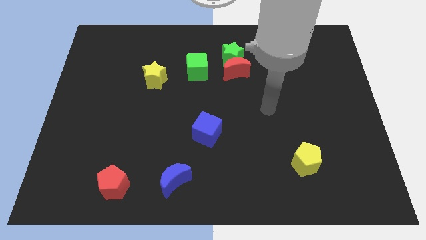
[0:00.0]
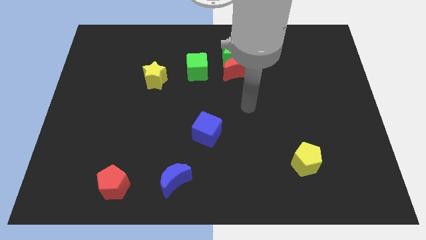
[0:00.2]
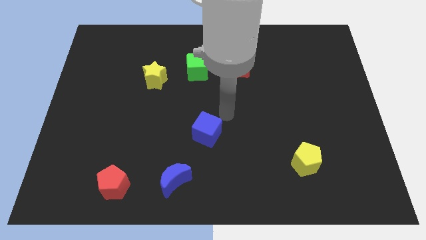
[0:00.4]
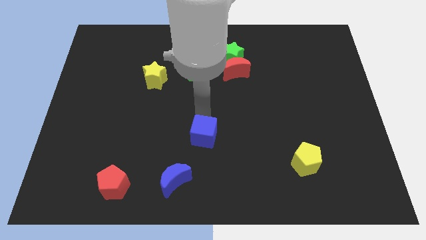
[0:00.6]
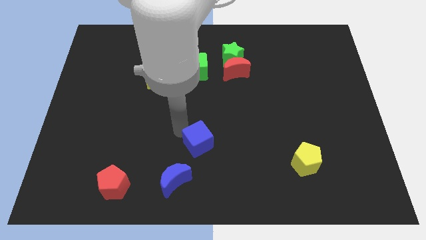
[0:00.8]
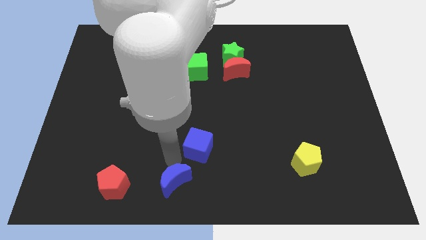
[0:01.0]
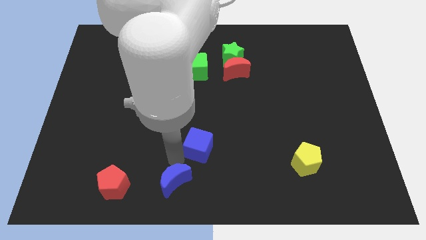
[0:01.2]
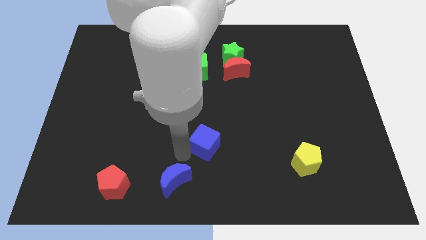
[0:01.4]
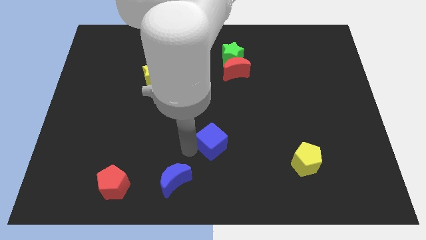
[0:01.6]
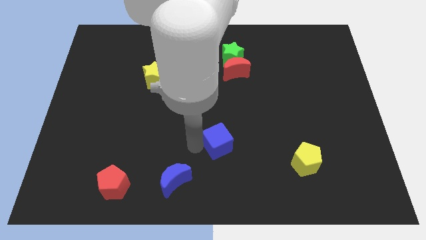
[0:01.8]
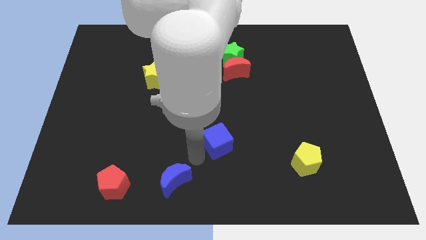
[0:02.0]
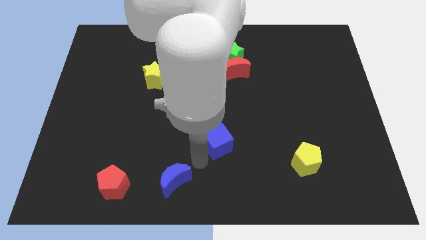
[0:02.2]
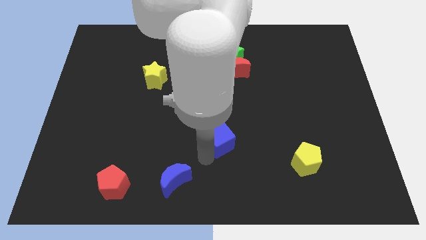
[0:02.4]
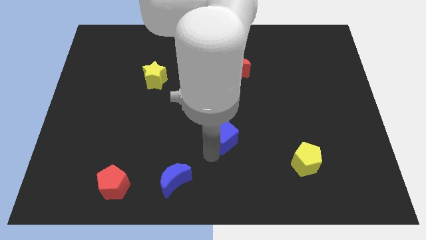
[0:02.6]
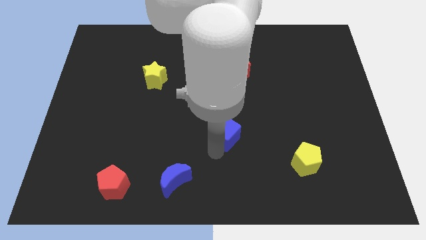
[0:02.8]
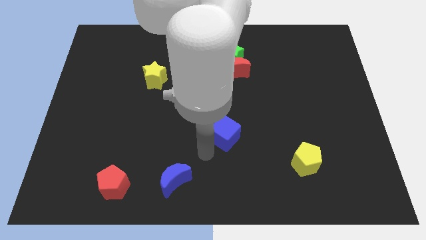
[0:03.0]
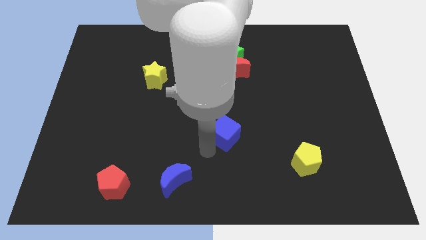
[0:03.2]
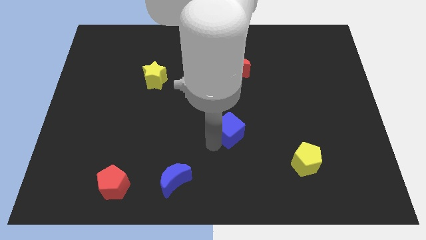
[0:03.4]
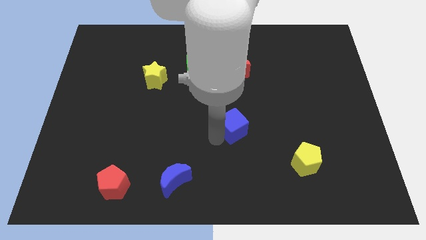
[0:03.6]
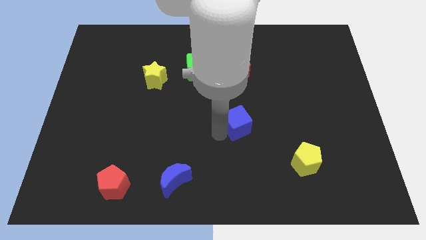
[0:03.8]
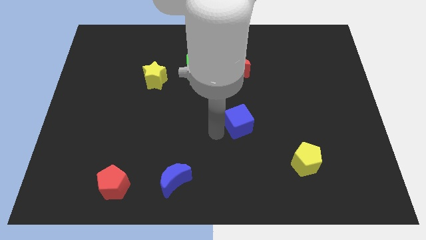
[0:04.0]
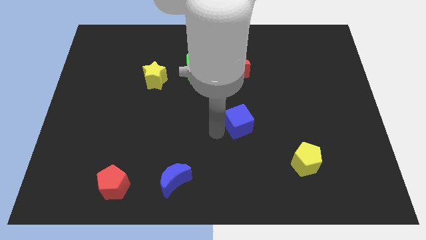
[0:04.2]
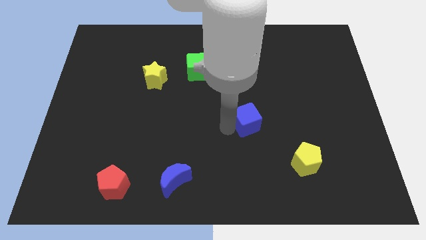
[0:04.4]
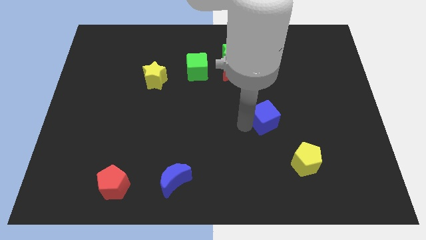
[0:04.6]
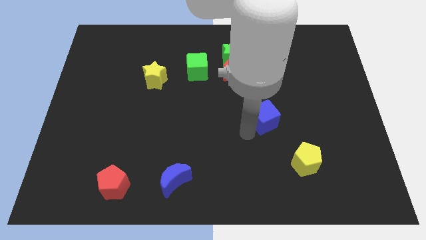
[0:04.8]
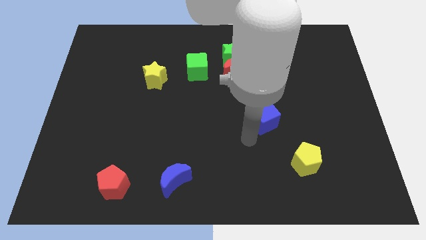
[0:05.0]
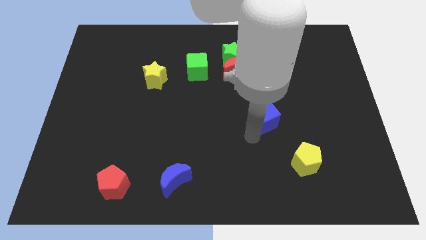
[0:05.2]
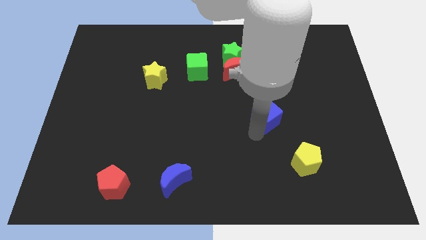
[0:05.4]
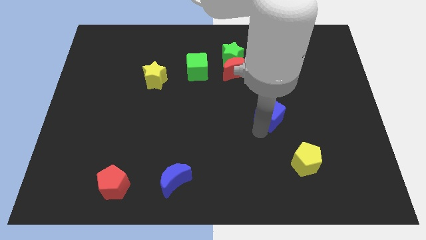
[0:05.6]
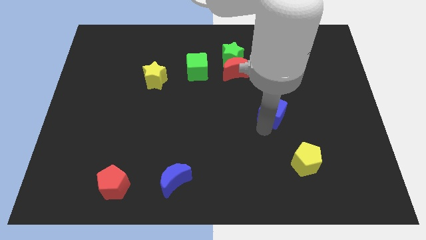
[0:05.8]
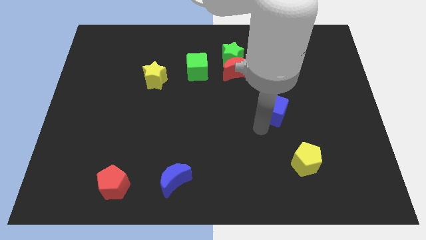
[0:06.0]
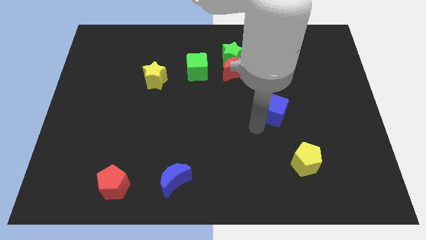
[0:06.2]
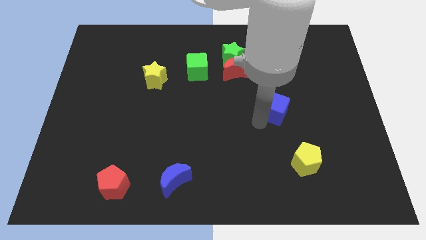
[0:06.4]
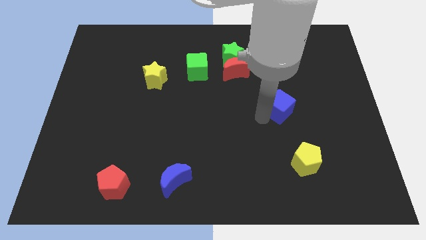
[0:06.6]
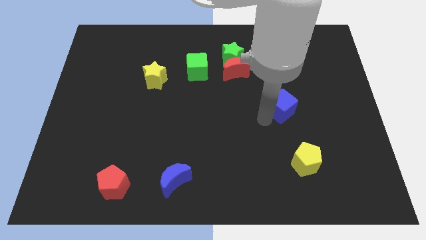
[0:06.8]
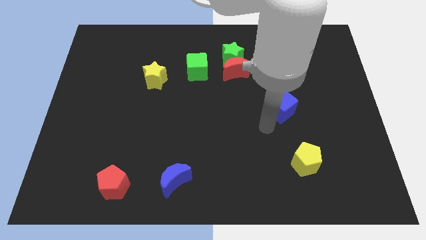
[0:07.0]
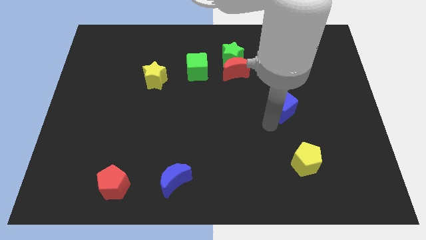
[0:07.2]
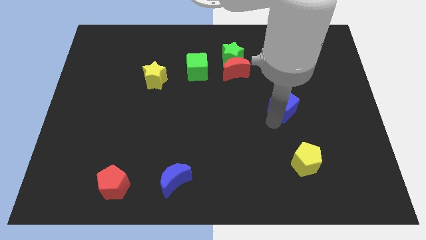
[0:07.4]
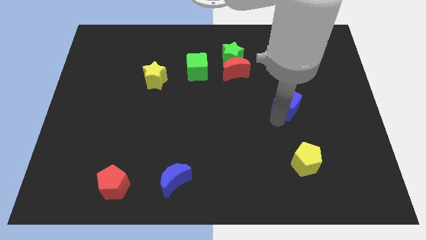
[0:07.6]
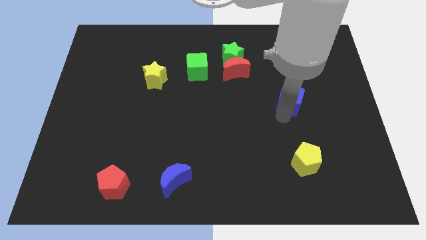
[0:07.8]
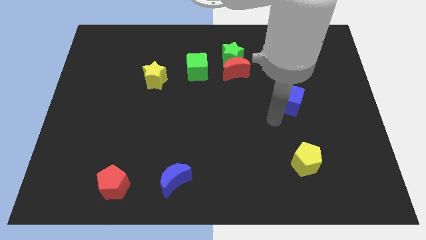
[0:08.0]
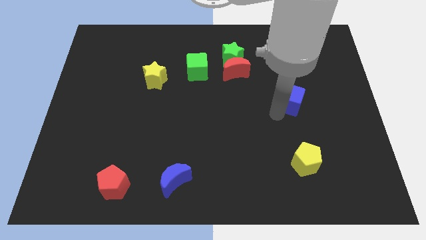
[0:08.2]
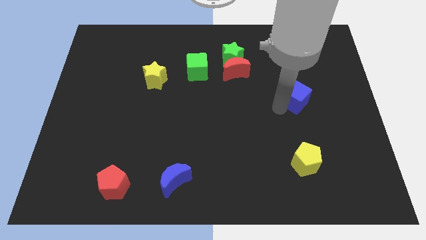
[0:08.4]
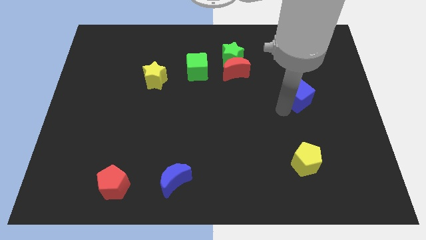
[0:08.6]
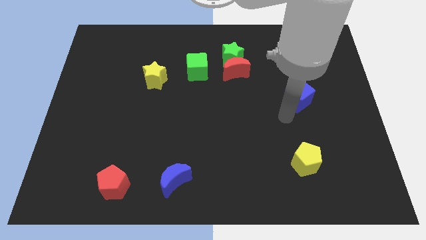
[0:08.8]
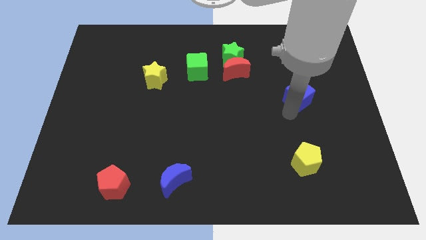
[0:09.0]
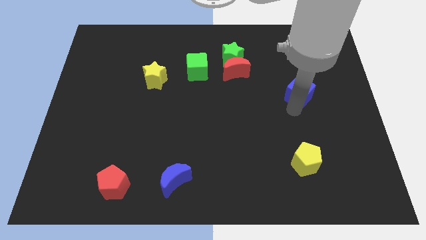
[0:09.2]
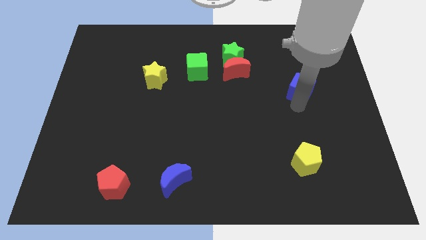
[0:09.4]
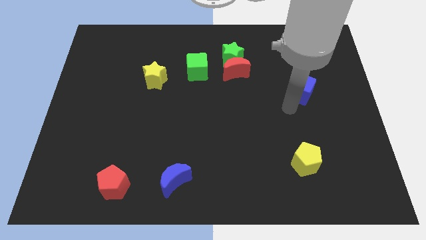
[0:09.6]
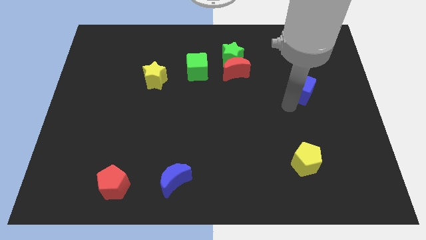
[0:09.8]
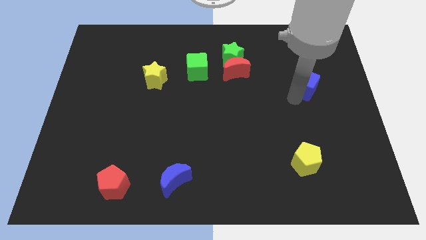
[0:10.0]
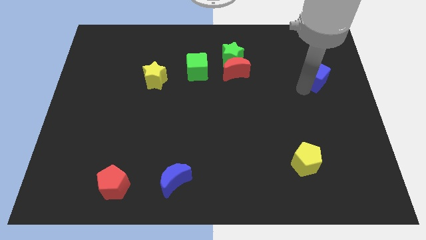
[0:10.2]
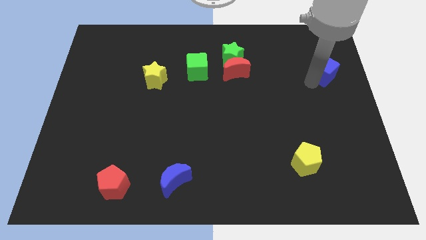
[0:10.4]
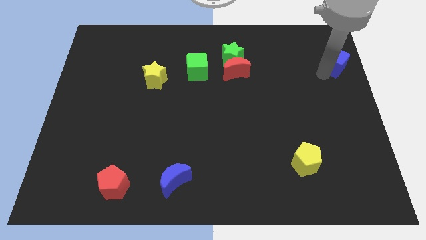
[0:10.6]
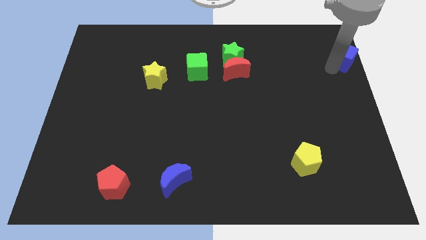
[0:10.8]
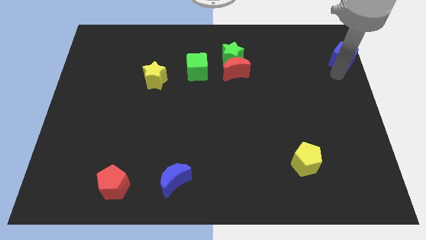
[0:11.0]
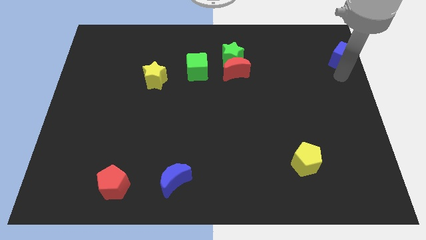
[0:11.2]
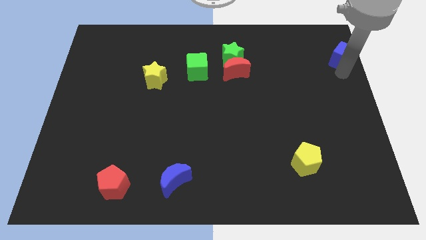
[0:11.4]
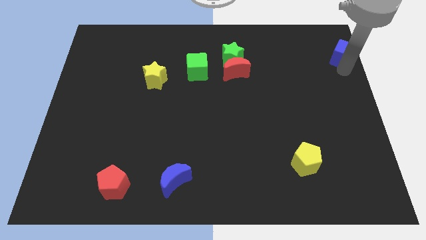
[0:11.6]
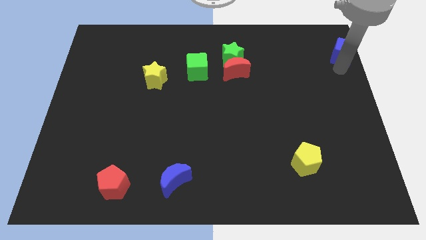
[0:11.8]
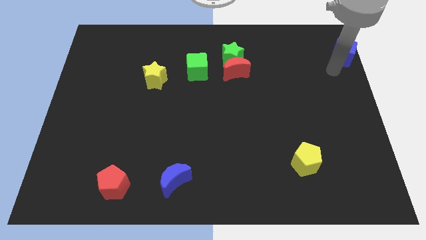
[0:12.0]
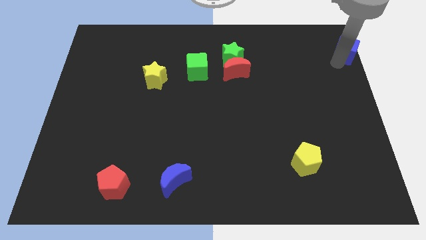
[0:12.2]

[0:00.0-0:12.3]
push the blue cube to the upper right corner

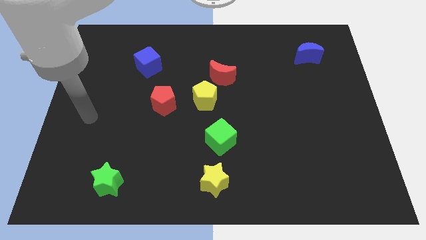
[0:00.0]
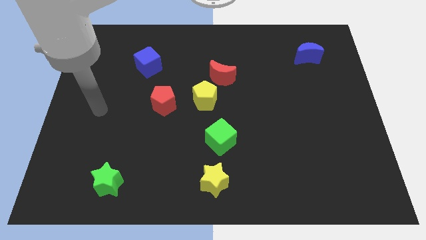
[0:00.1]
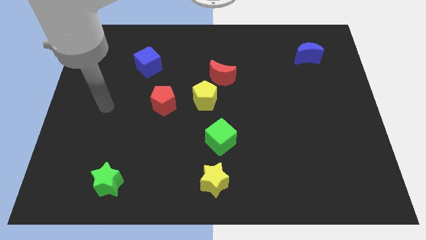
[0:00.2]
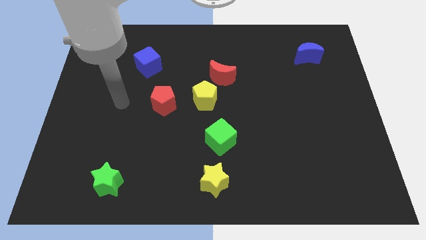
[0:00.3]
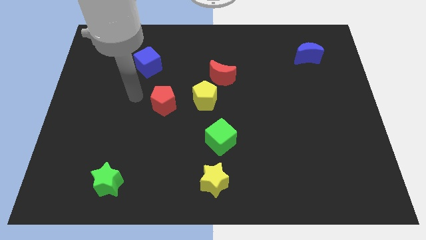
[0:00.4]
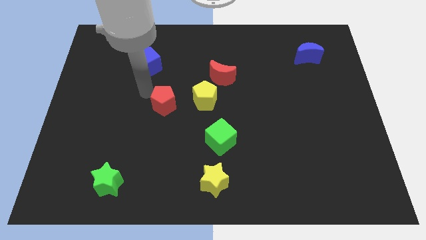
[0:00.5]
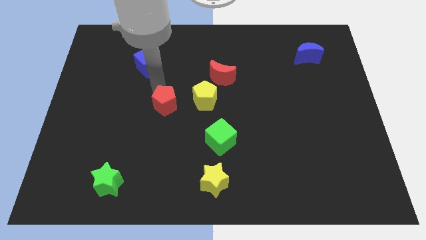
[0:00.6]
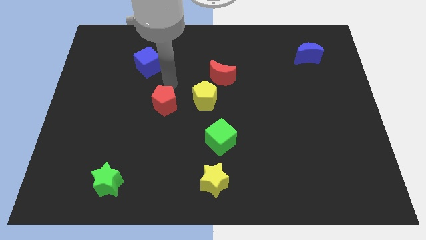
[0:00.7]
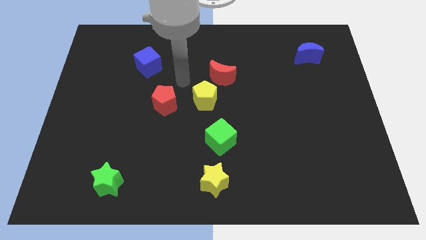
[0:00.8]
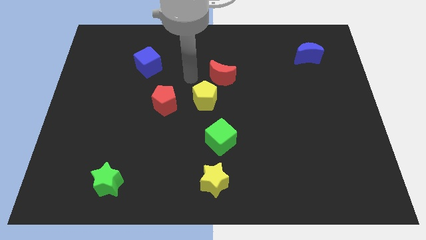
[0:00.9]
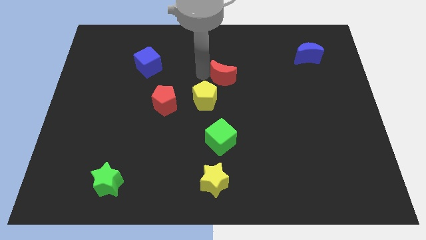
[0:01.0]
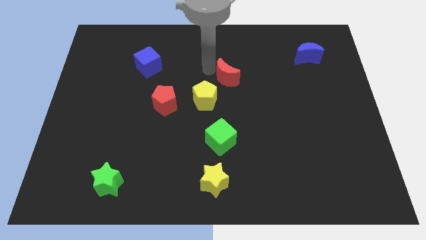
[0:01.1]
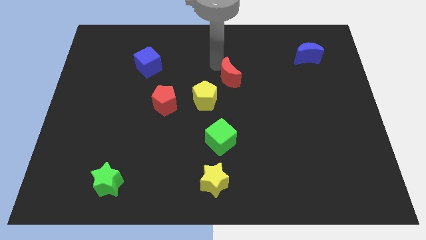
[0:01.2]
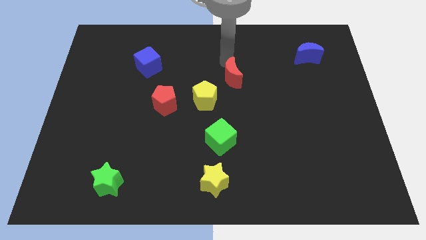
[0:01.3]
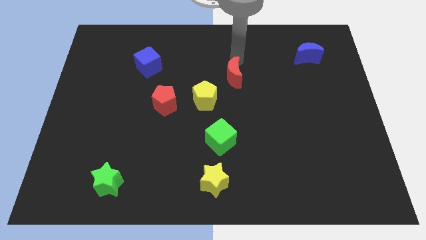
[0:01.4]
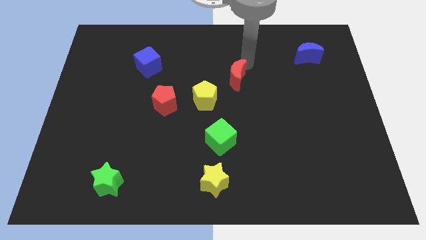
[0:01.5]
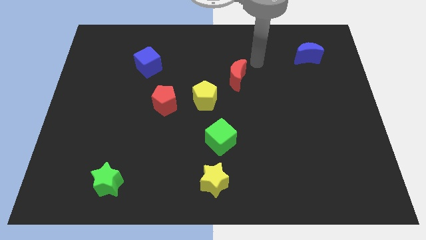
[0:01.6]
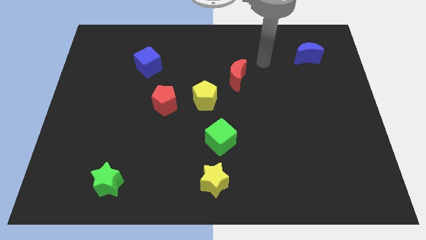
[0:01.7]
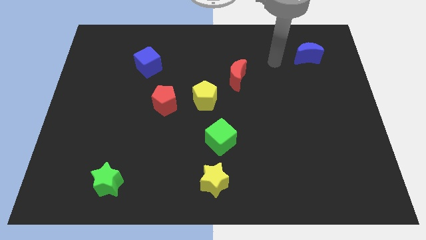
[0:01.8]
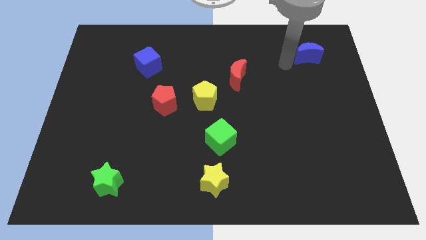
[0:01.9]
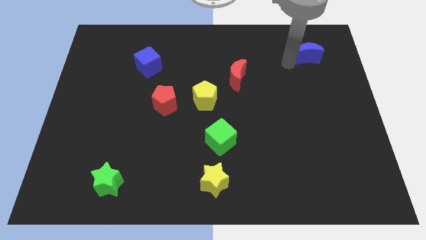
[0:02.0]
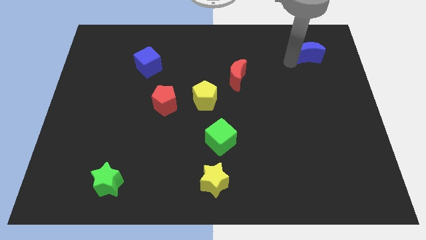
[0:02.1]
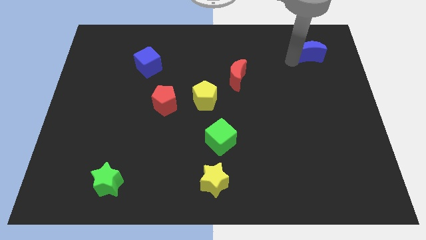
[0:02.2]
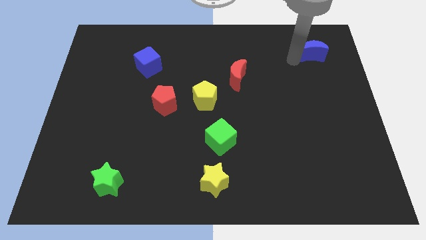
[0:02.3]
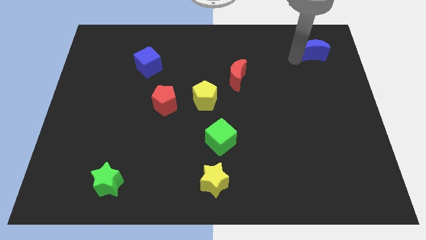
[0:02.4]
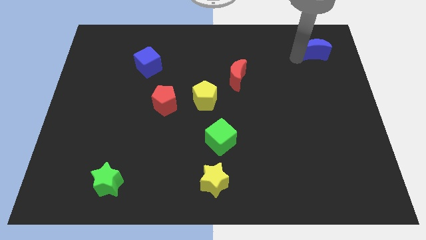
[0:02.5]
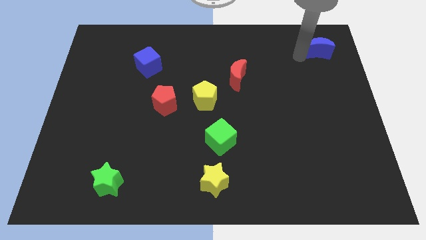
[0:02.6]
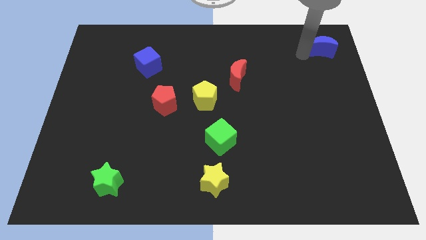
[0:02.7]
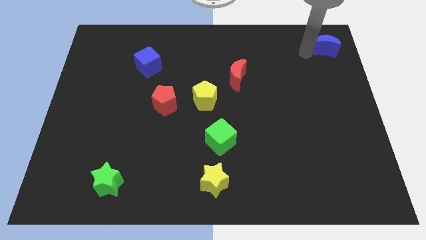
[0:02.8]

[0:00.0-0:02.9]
slide the blue moon to the top right corner
